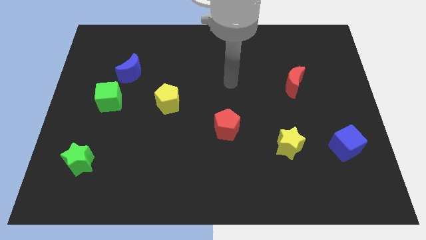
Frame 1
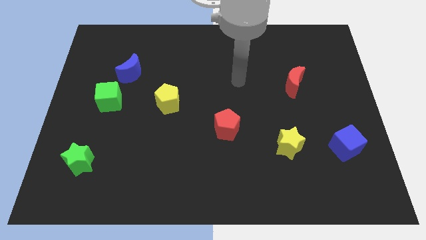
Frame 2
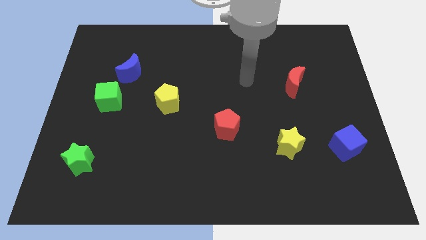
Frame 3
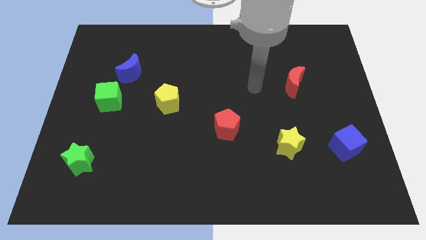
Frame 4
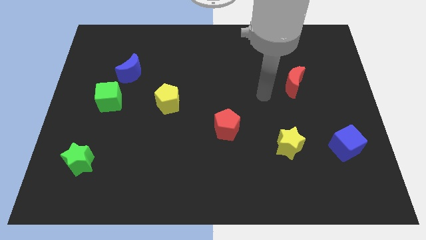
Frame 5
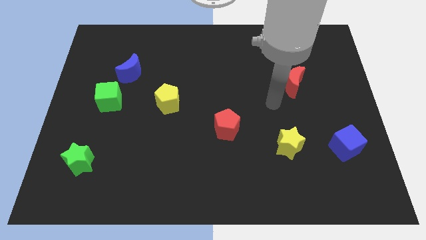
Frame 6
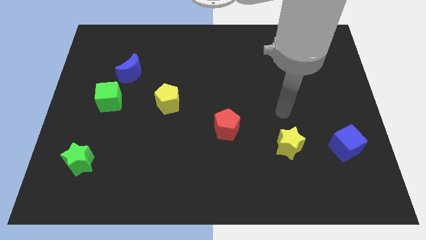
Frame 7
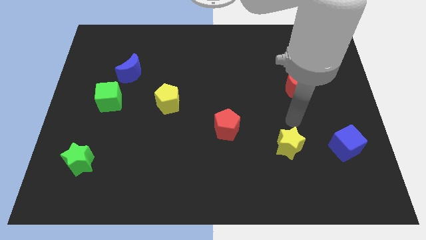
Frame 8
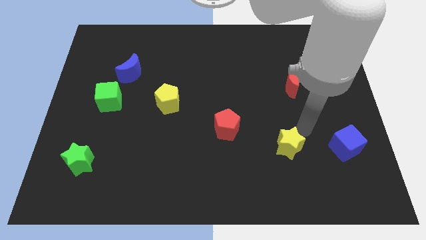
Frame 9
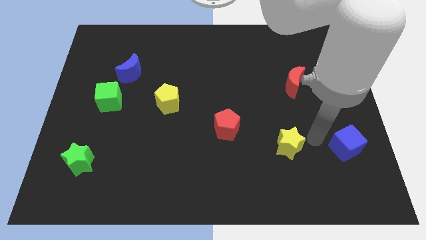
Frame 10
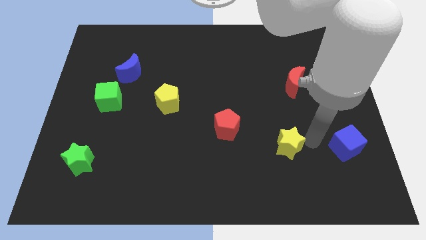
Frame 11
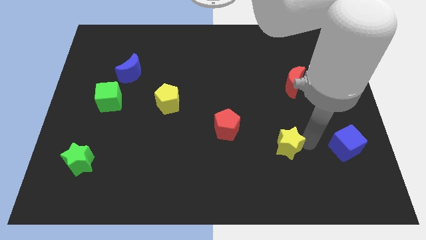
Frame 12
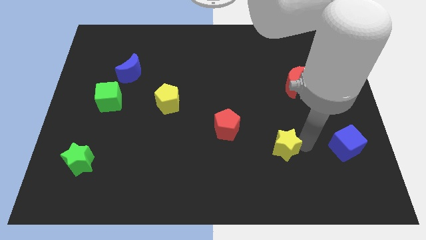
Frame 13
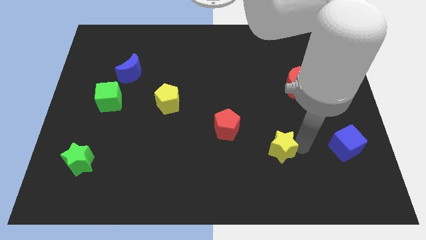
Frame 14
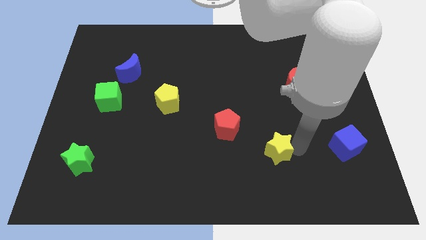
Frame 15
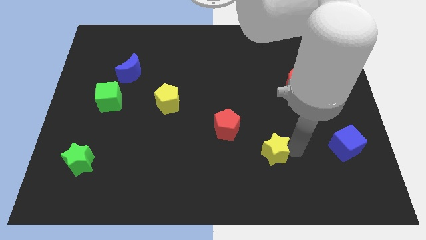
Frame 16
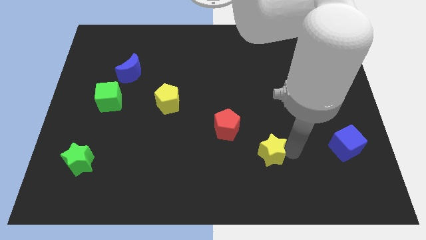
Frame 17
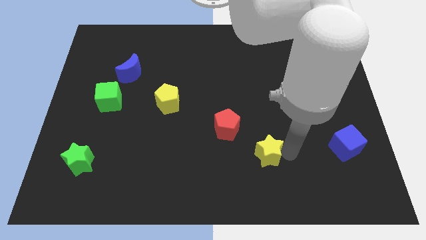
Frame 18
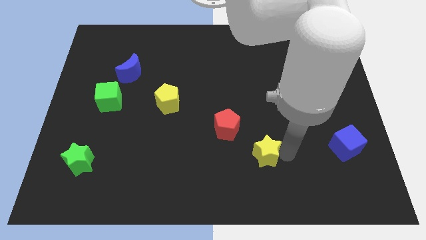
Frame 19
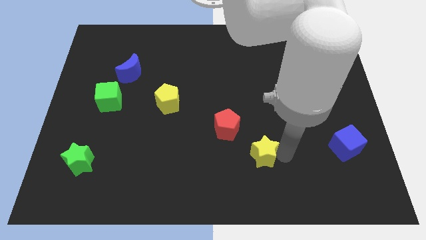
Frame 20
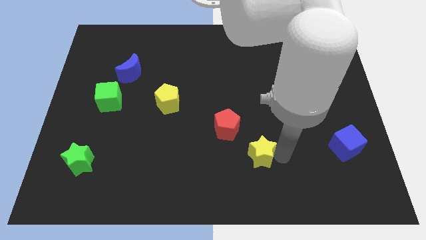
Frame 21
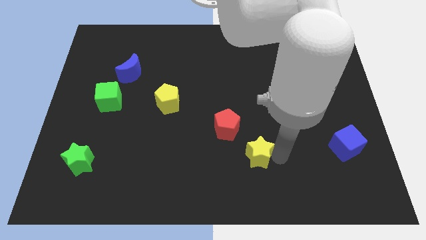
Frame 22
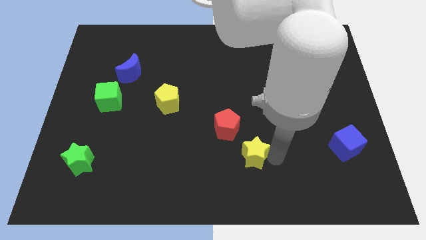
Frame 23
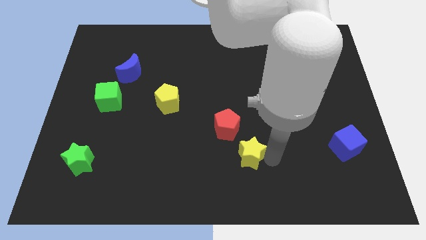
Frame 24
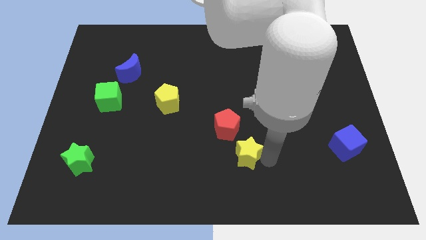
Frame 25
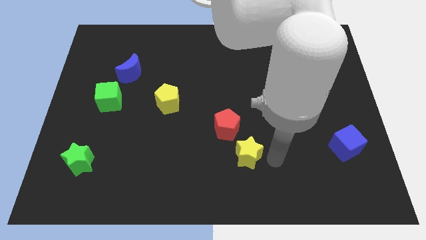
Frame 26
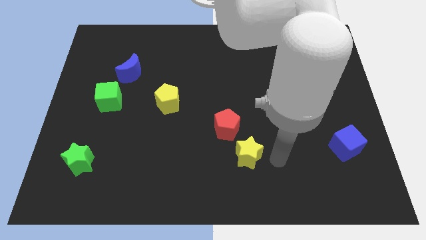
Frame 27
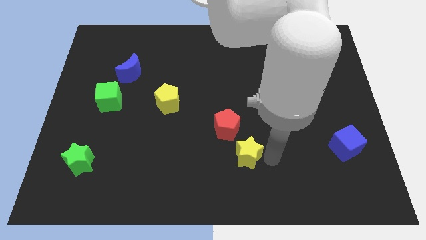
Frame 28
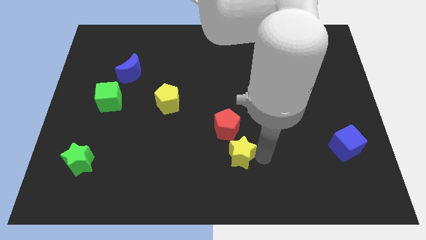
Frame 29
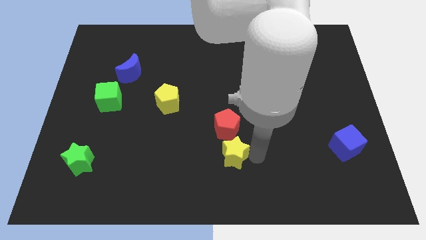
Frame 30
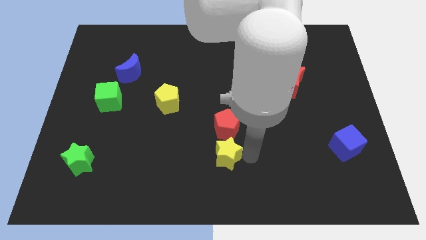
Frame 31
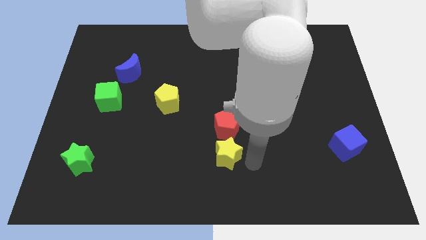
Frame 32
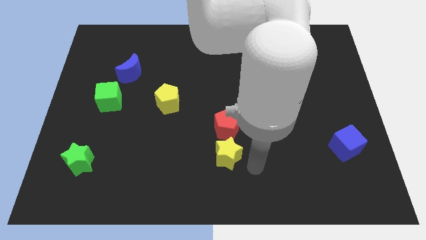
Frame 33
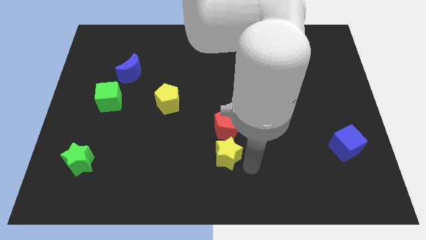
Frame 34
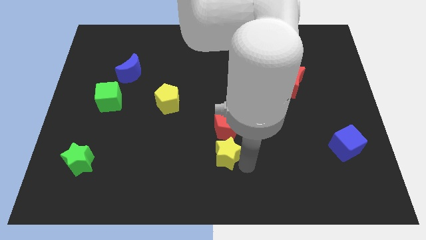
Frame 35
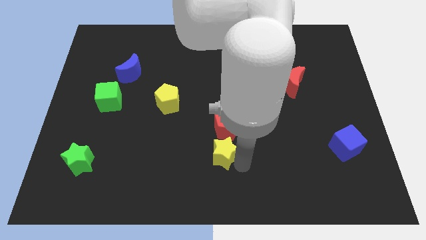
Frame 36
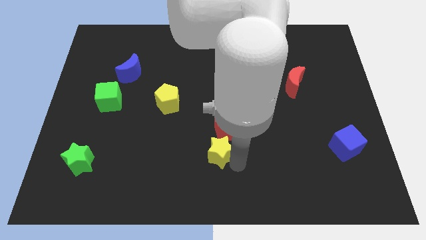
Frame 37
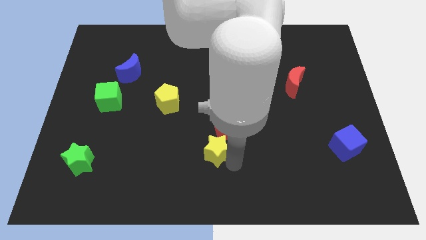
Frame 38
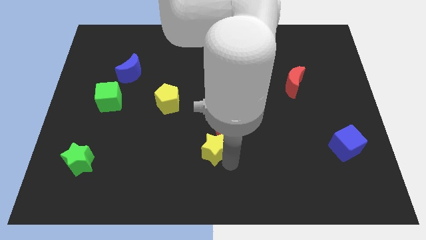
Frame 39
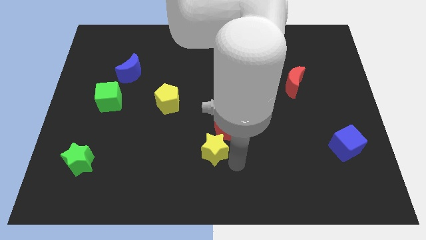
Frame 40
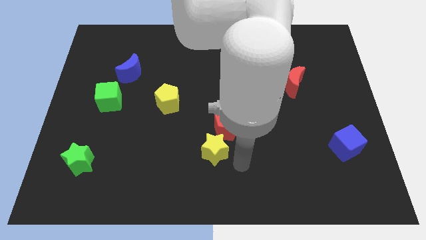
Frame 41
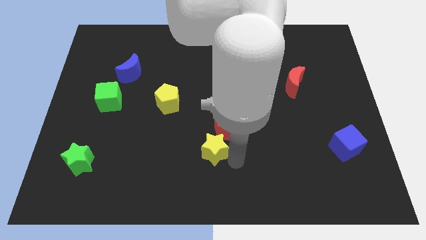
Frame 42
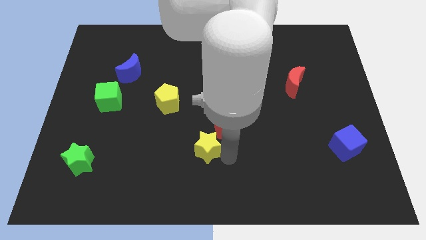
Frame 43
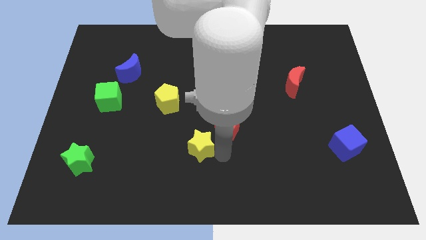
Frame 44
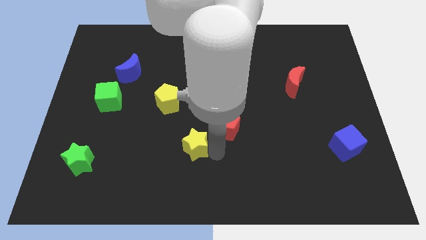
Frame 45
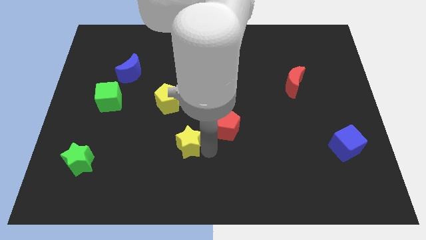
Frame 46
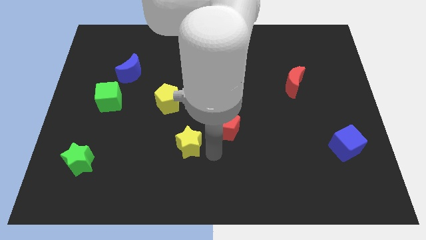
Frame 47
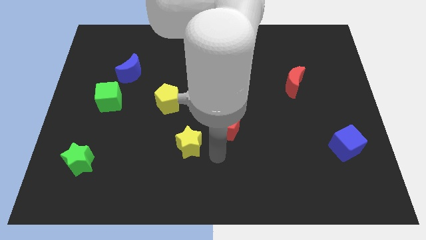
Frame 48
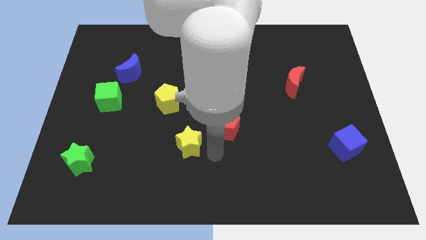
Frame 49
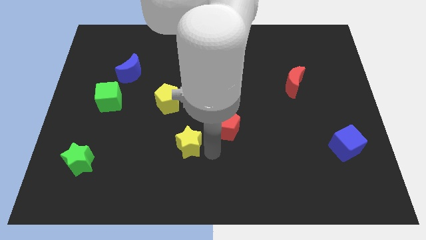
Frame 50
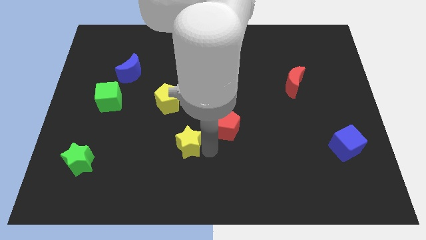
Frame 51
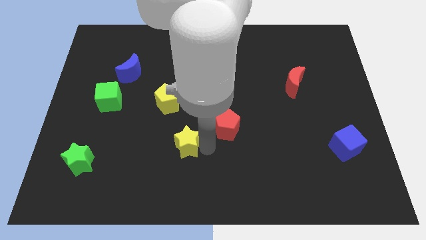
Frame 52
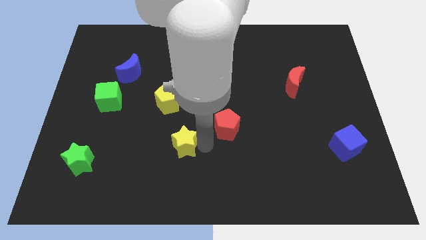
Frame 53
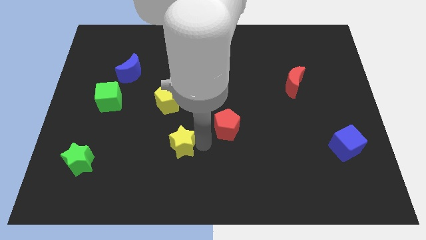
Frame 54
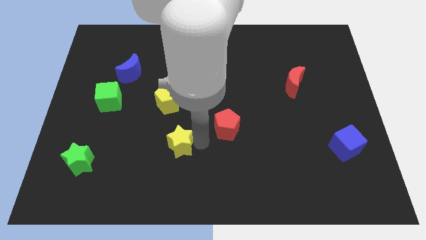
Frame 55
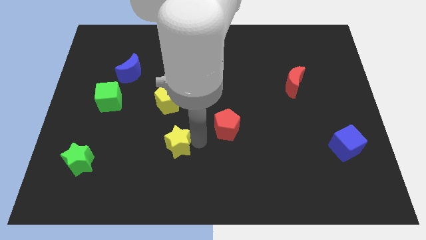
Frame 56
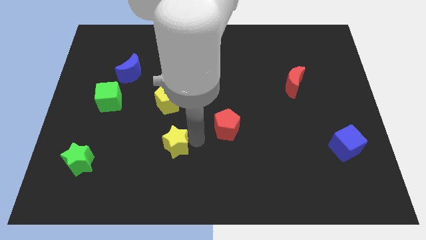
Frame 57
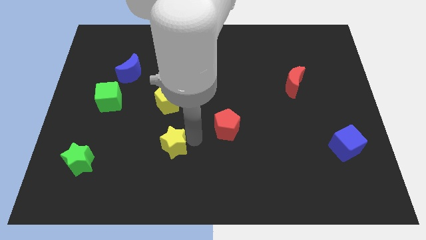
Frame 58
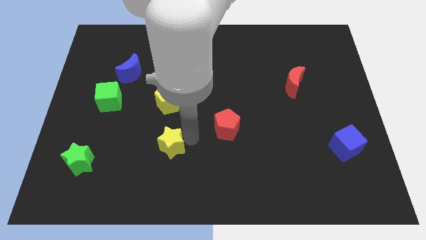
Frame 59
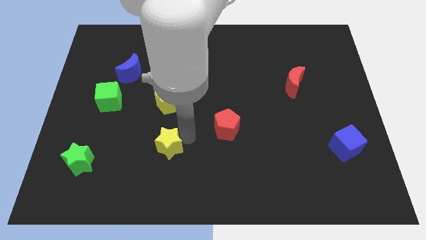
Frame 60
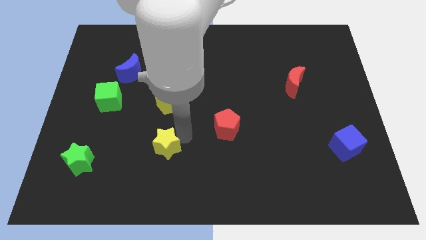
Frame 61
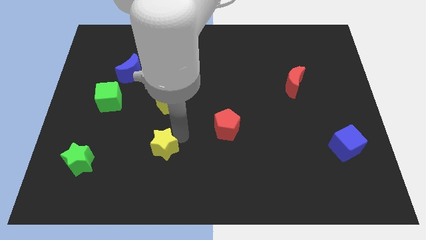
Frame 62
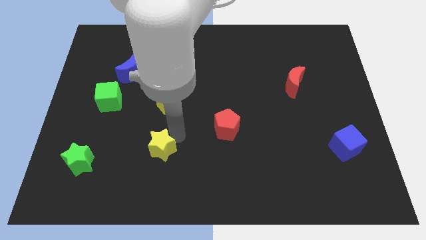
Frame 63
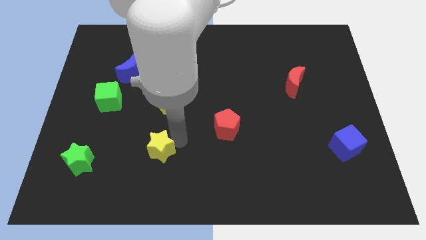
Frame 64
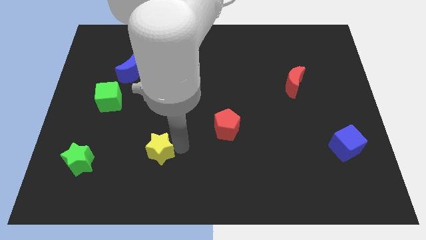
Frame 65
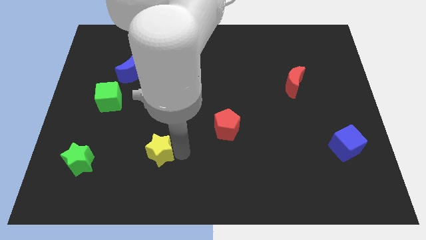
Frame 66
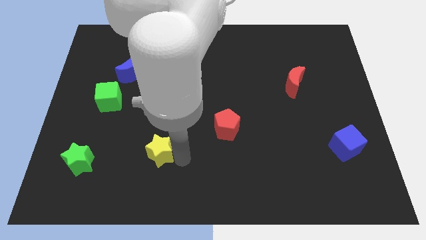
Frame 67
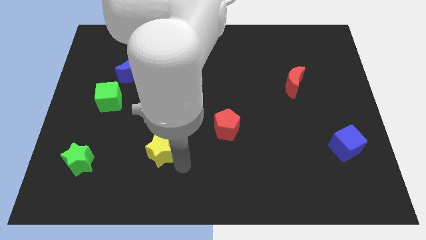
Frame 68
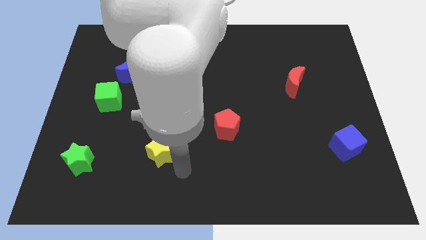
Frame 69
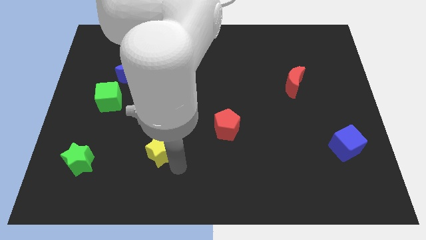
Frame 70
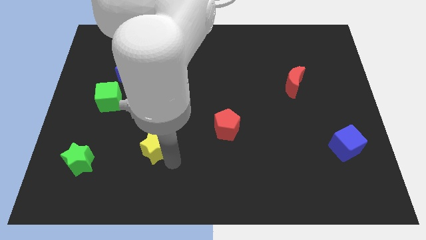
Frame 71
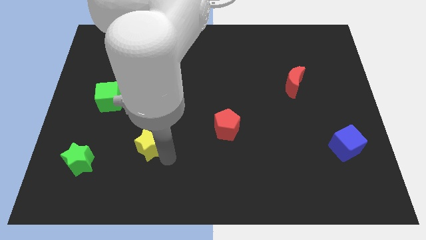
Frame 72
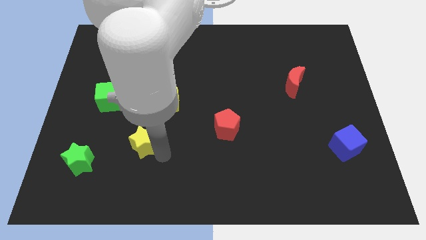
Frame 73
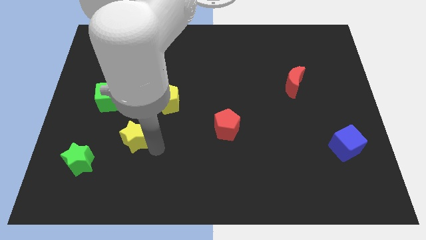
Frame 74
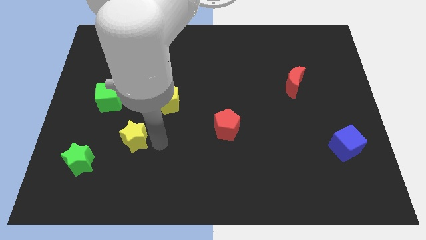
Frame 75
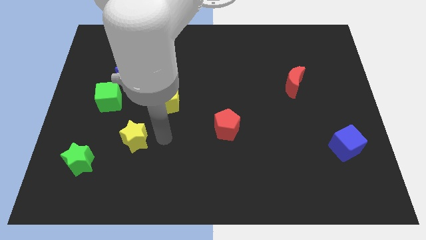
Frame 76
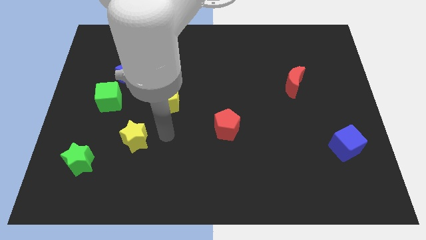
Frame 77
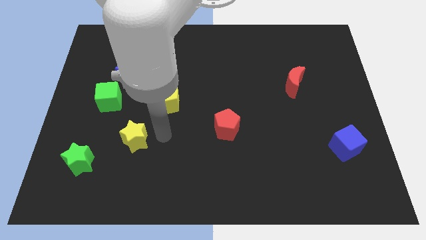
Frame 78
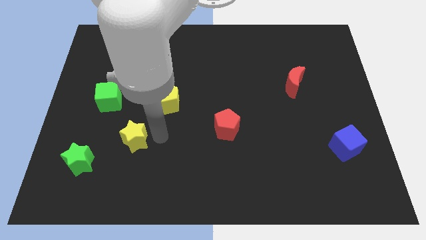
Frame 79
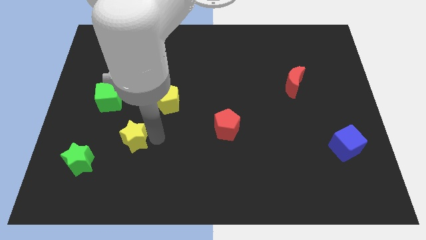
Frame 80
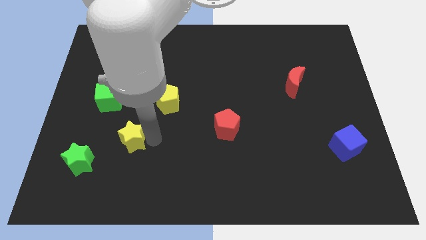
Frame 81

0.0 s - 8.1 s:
move the yellow star diagonally up and to the right of the green star
